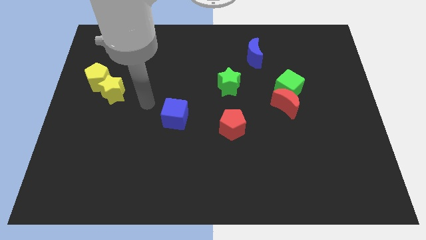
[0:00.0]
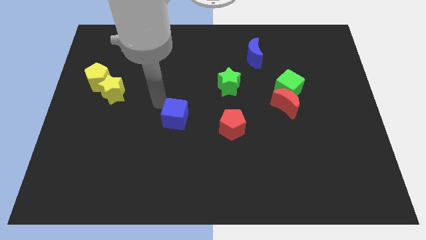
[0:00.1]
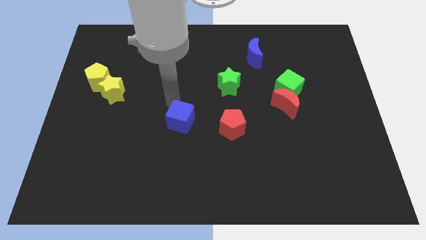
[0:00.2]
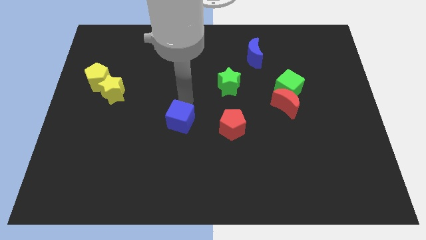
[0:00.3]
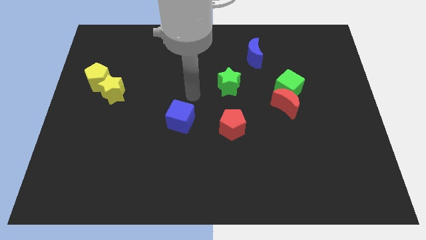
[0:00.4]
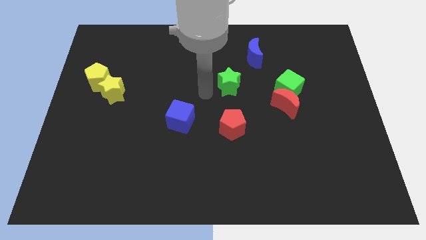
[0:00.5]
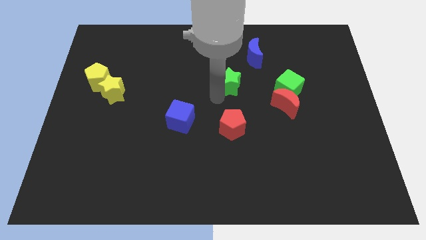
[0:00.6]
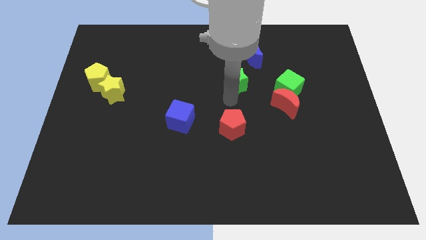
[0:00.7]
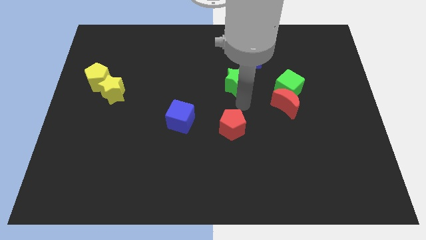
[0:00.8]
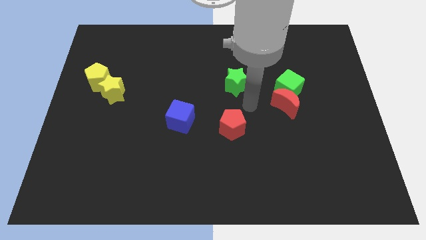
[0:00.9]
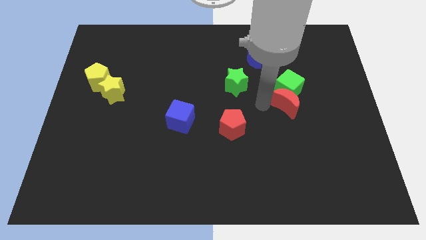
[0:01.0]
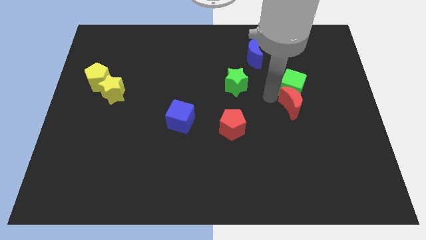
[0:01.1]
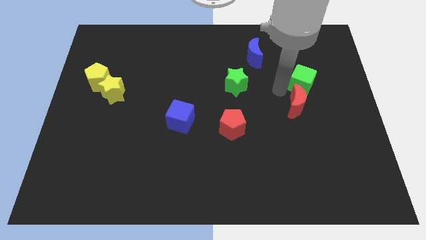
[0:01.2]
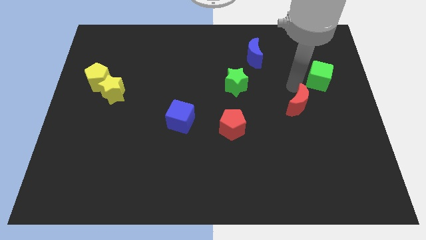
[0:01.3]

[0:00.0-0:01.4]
move the red moon away from the green cube

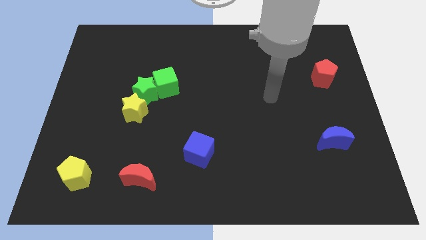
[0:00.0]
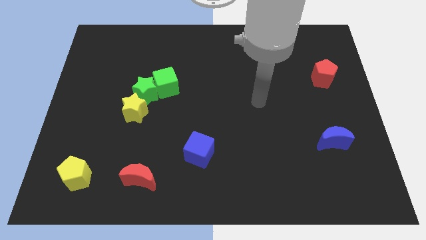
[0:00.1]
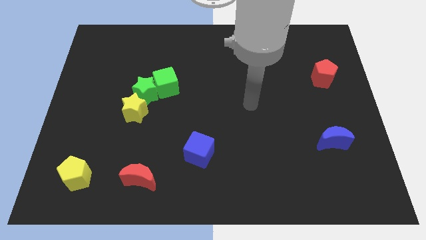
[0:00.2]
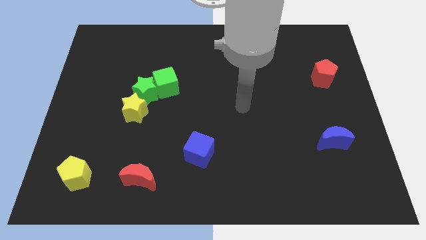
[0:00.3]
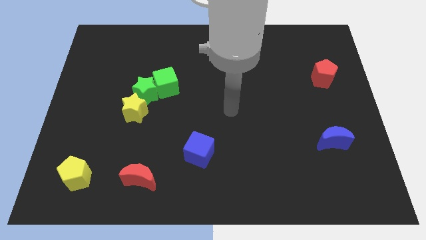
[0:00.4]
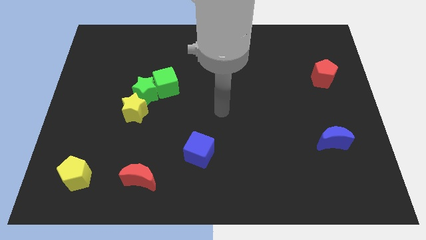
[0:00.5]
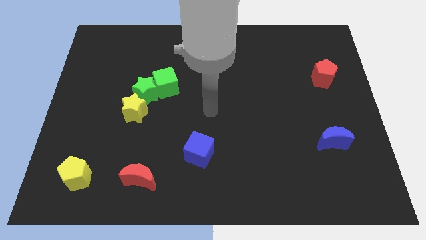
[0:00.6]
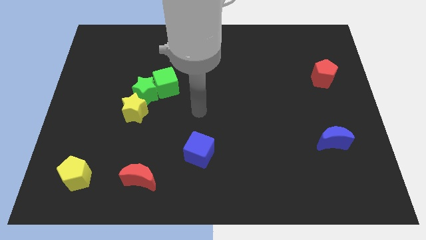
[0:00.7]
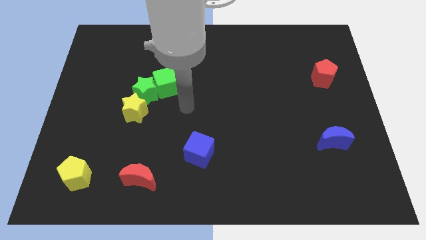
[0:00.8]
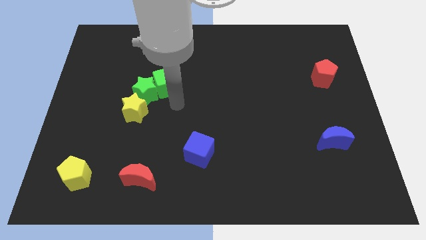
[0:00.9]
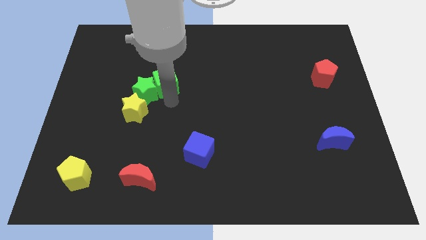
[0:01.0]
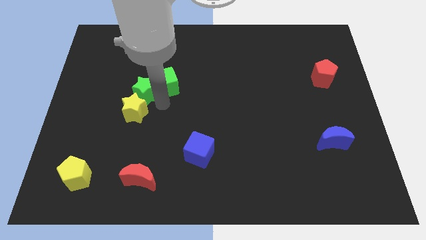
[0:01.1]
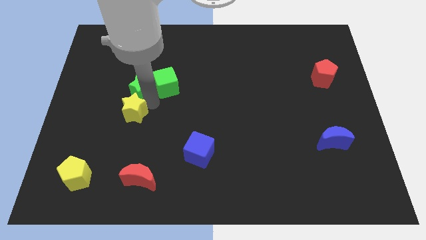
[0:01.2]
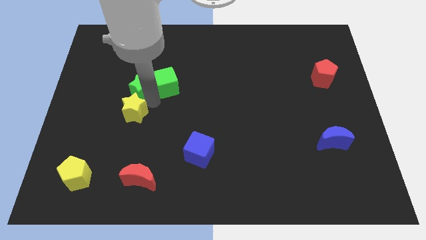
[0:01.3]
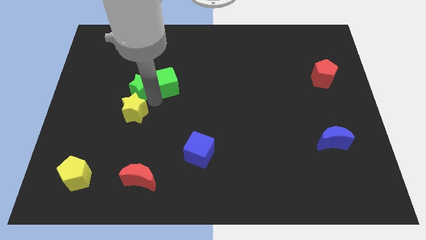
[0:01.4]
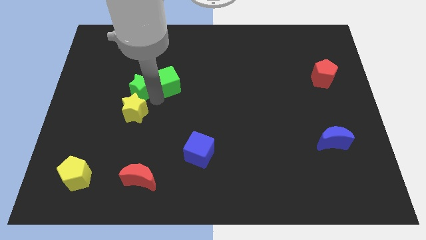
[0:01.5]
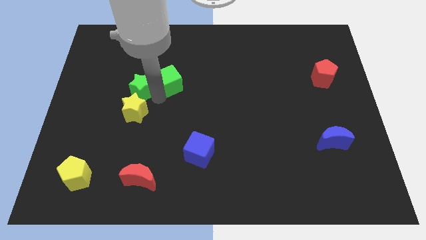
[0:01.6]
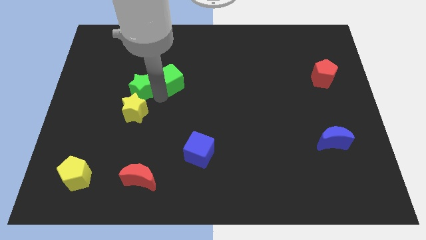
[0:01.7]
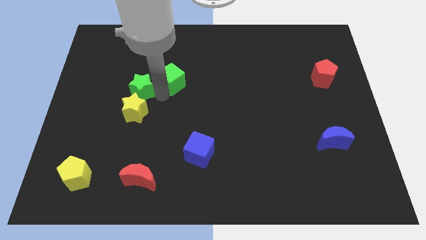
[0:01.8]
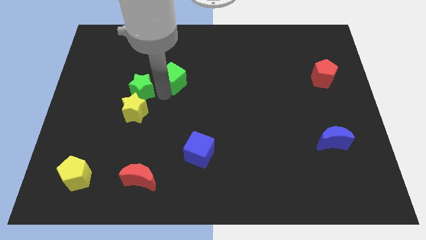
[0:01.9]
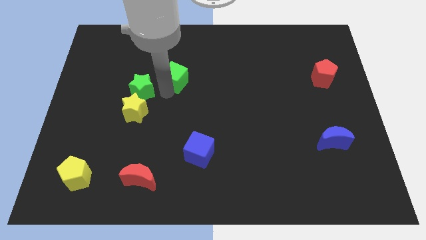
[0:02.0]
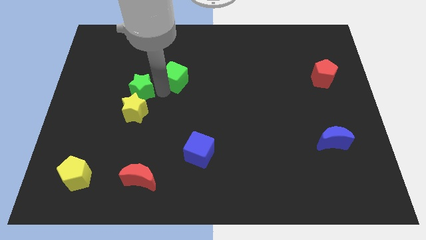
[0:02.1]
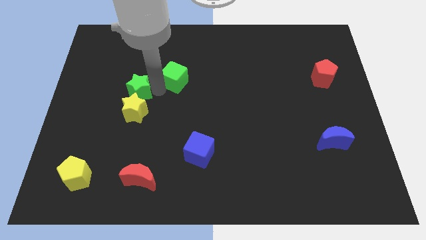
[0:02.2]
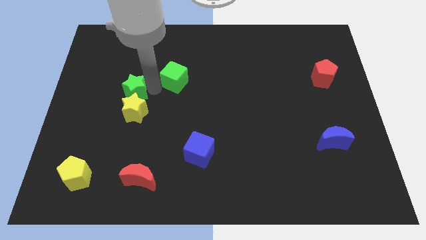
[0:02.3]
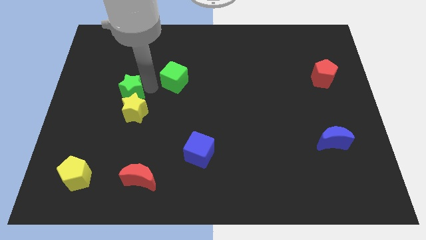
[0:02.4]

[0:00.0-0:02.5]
separate the green cube from the green star

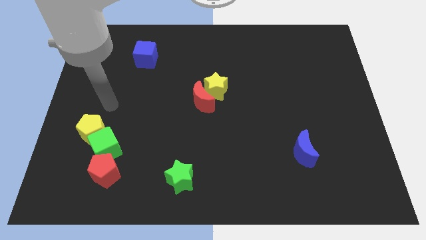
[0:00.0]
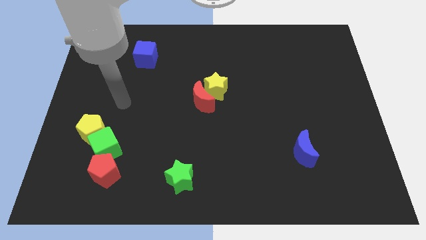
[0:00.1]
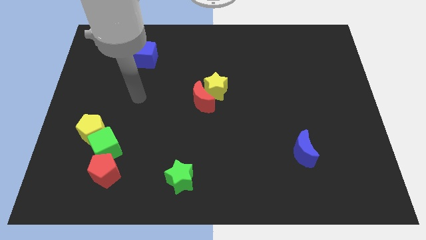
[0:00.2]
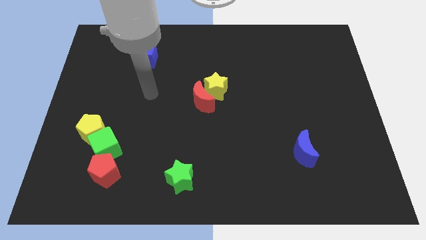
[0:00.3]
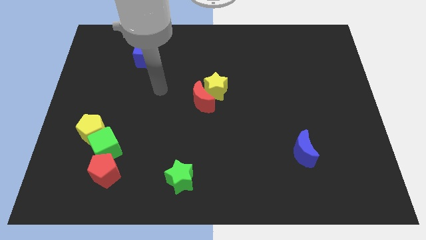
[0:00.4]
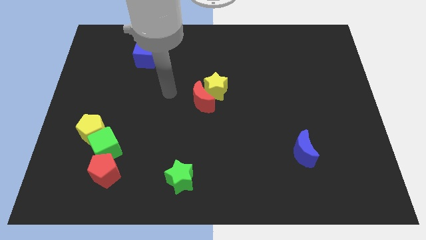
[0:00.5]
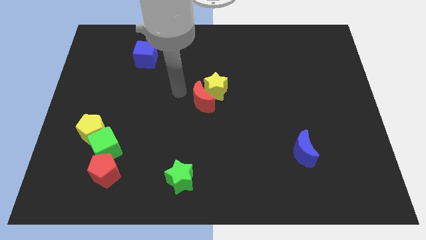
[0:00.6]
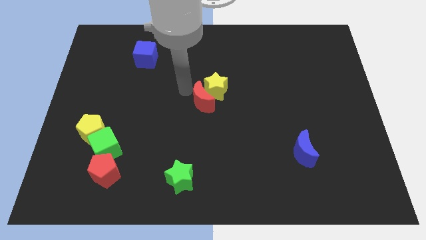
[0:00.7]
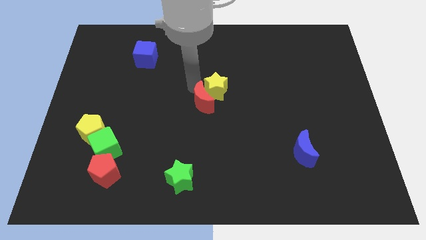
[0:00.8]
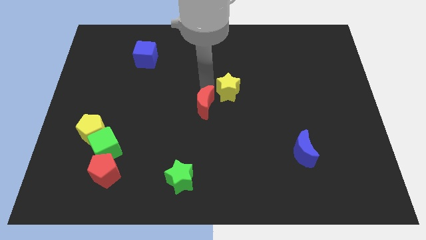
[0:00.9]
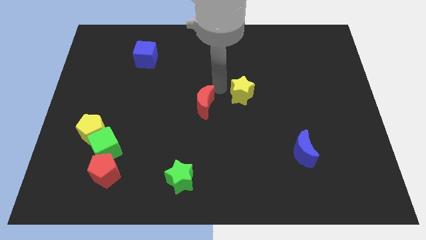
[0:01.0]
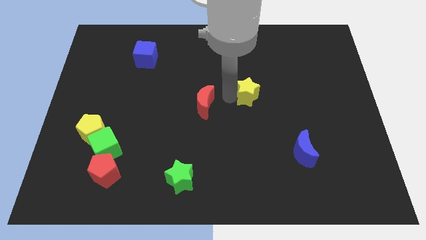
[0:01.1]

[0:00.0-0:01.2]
separate the red moon from the yellow star

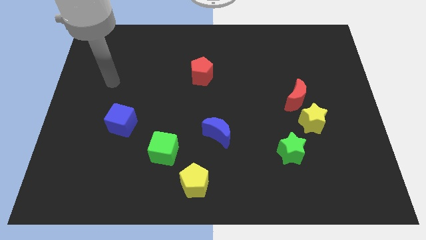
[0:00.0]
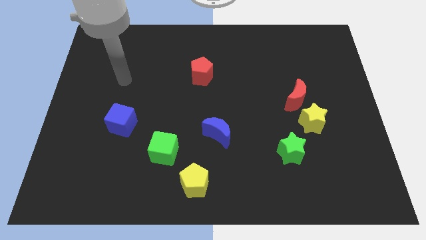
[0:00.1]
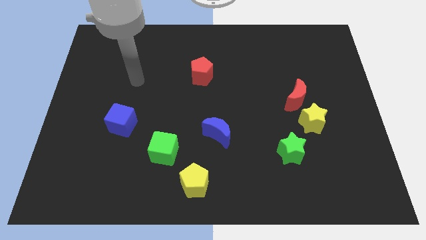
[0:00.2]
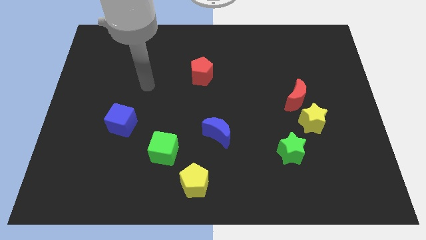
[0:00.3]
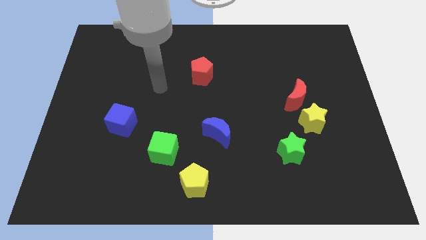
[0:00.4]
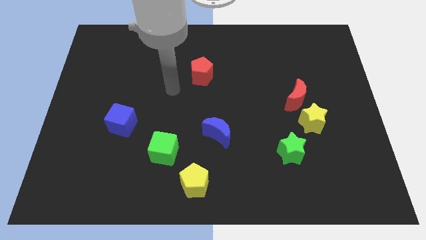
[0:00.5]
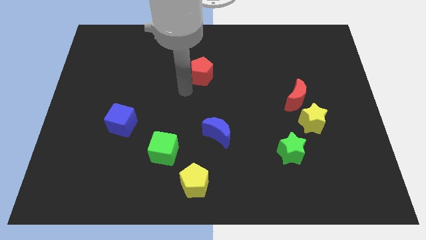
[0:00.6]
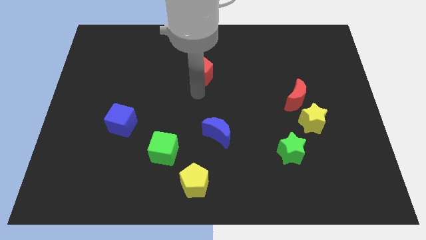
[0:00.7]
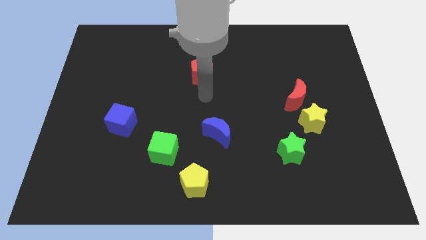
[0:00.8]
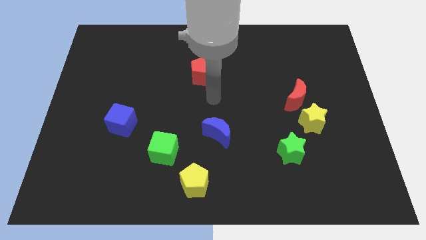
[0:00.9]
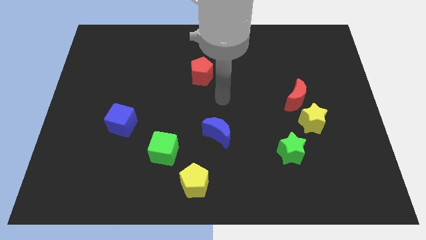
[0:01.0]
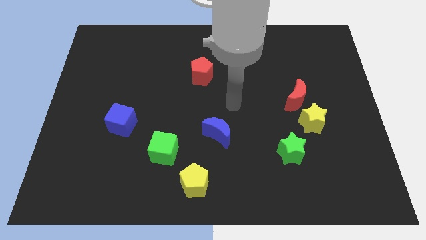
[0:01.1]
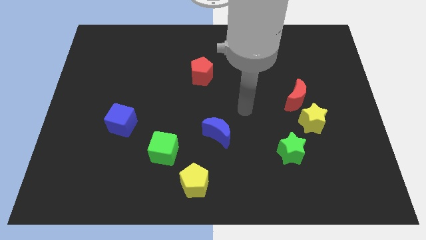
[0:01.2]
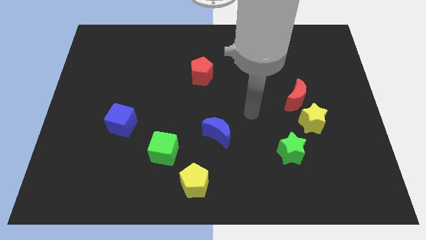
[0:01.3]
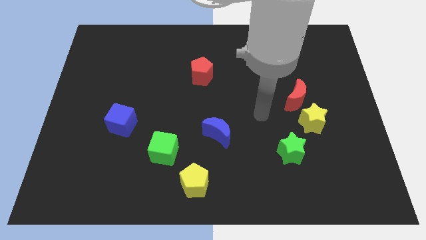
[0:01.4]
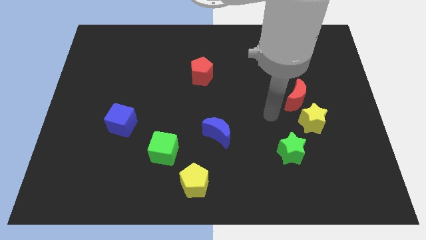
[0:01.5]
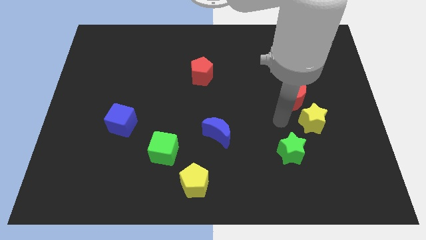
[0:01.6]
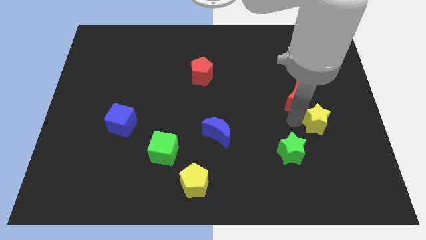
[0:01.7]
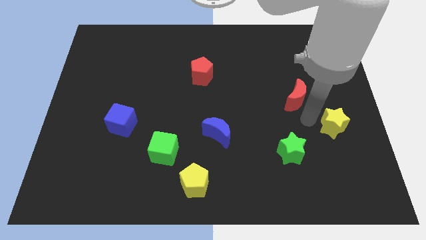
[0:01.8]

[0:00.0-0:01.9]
move the red moon away from the yellow star

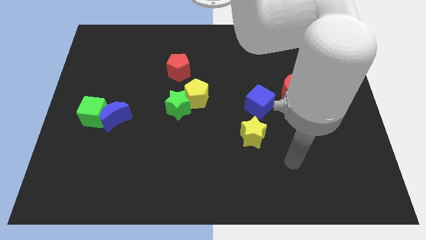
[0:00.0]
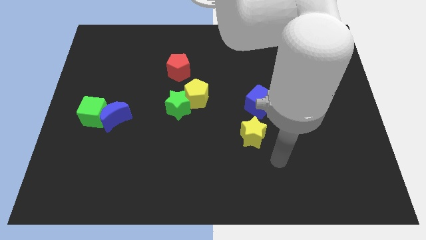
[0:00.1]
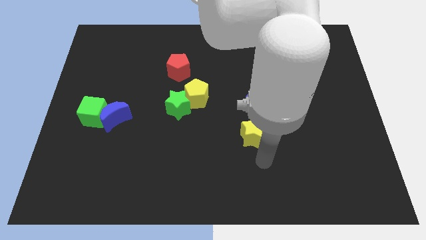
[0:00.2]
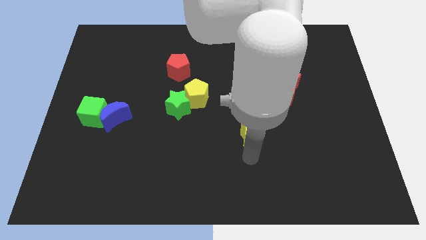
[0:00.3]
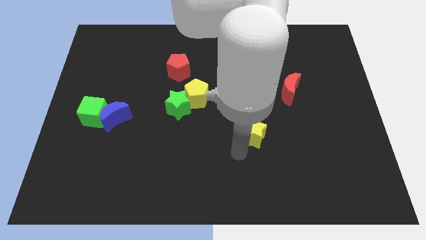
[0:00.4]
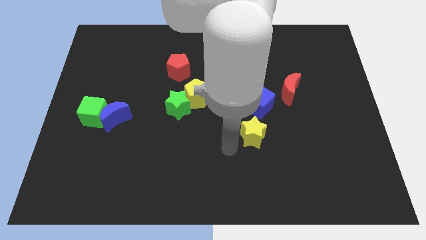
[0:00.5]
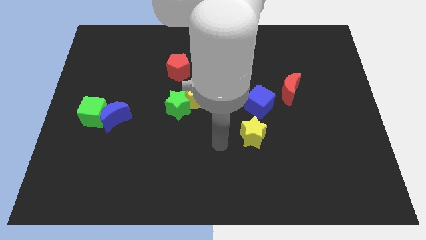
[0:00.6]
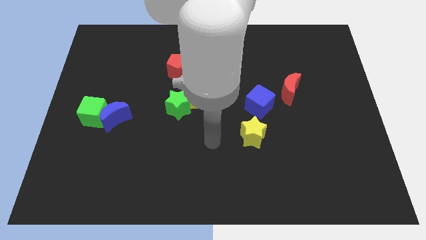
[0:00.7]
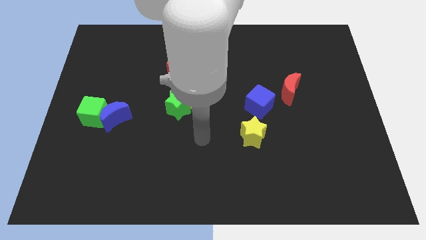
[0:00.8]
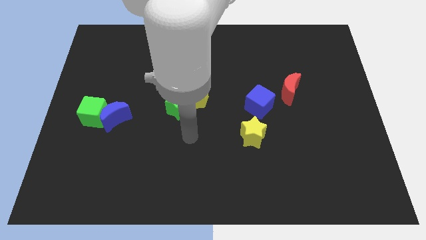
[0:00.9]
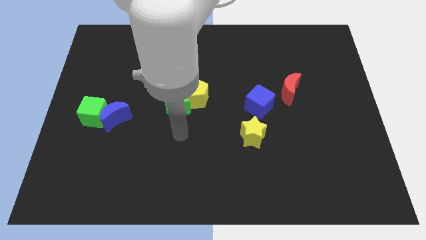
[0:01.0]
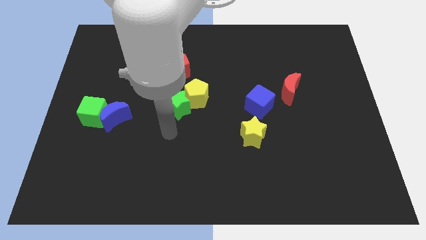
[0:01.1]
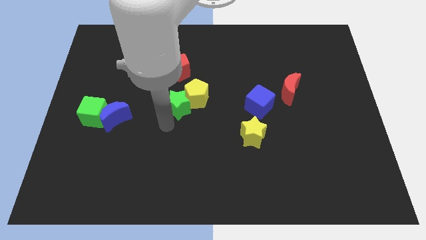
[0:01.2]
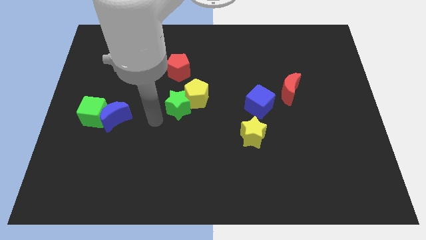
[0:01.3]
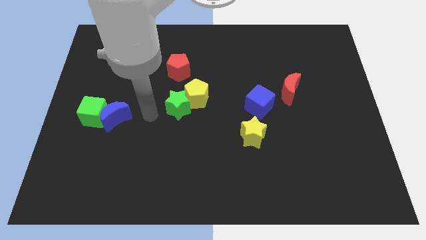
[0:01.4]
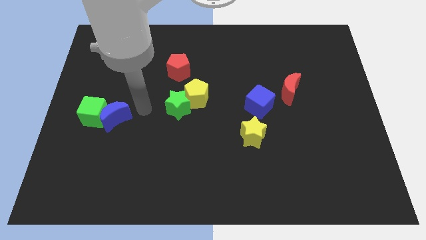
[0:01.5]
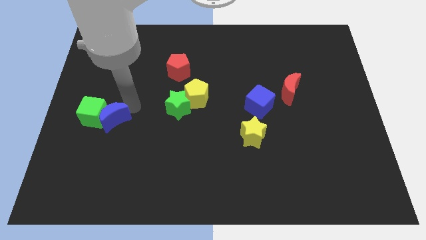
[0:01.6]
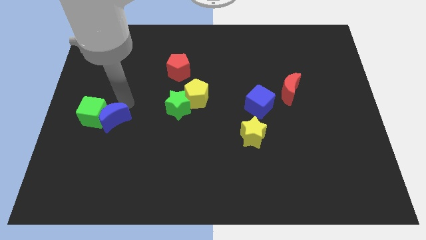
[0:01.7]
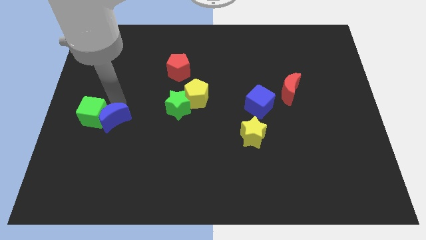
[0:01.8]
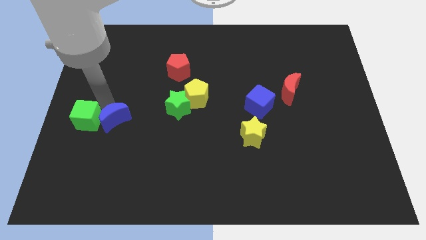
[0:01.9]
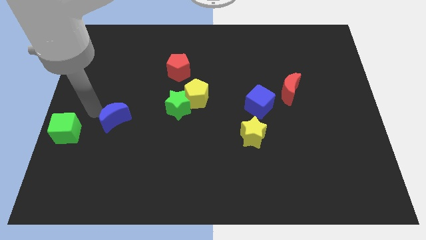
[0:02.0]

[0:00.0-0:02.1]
pull the blue moon apart from the green cube

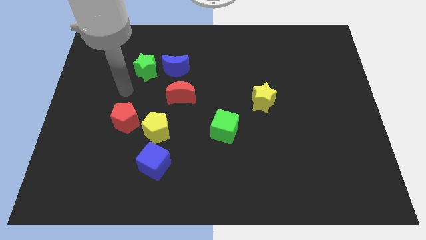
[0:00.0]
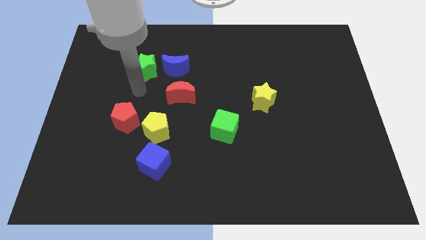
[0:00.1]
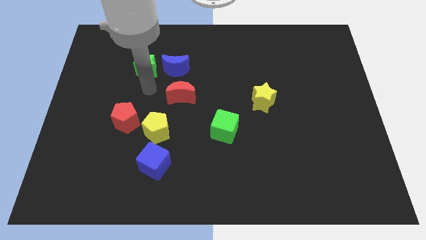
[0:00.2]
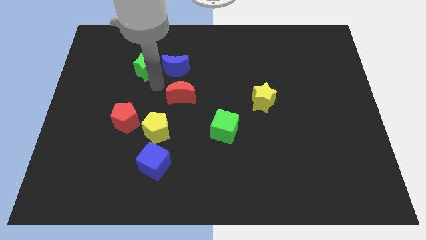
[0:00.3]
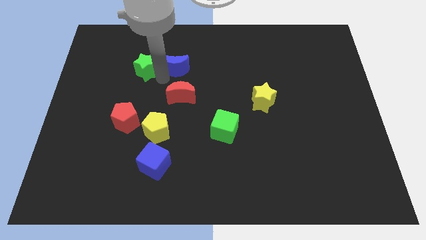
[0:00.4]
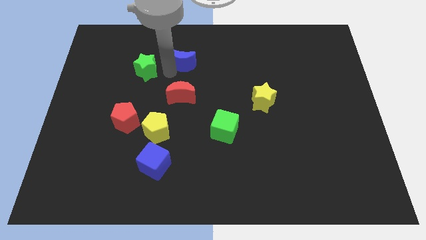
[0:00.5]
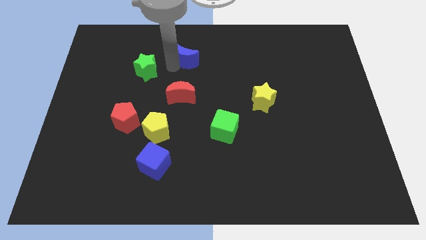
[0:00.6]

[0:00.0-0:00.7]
separate the green star from the blue moon
